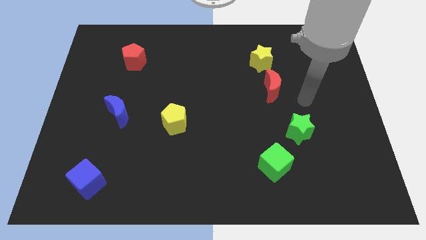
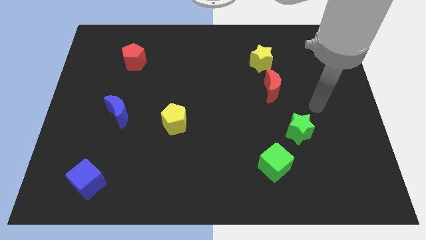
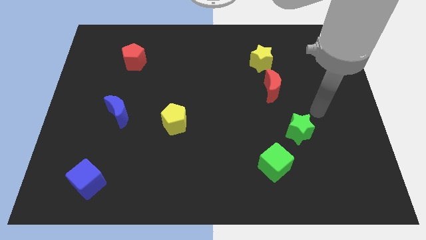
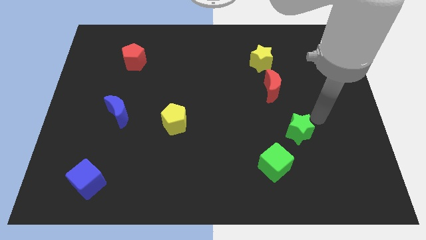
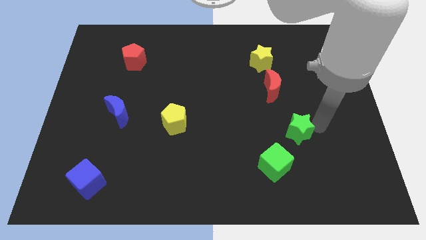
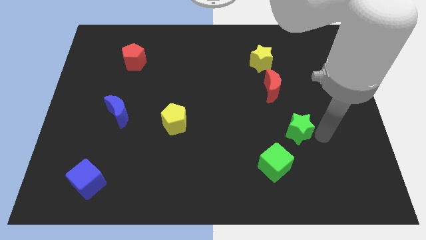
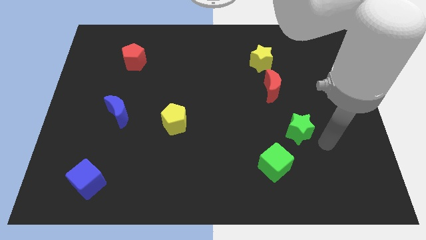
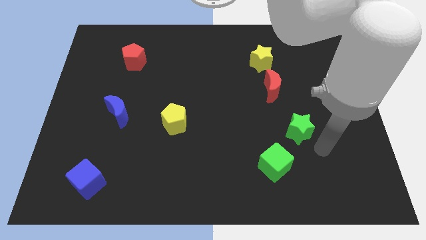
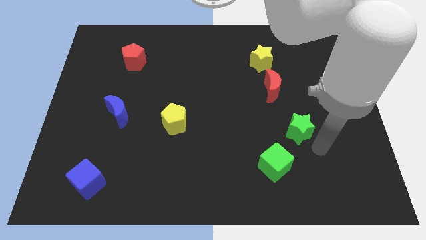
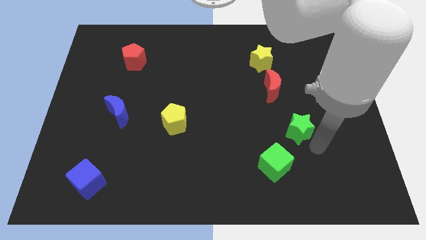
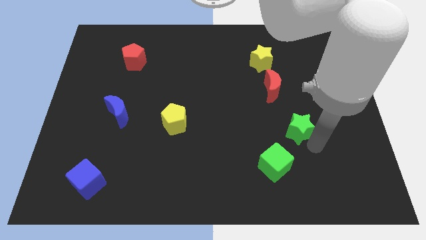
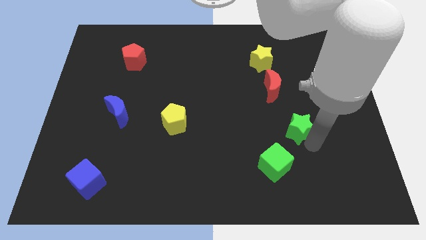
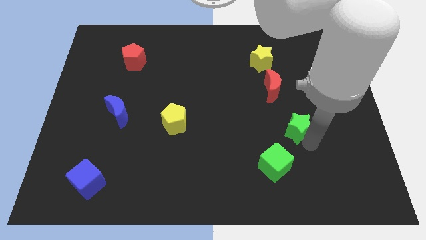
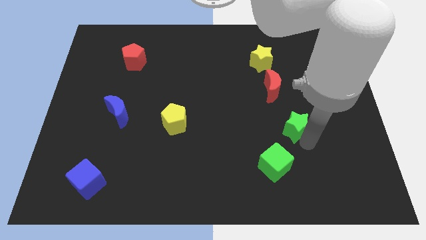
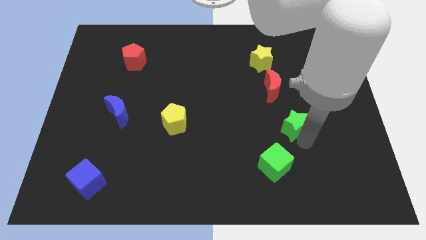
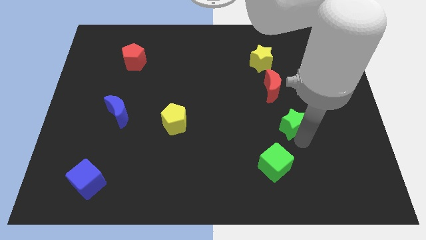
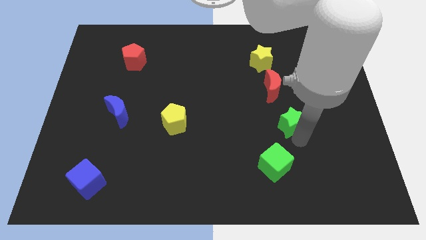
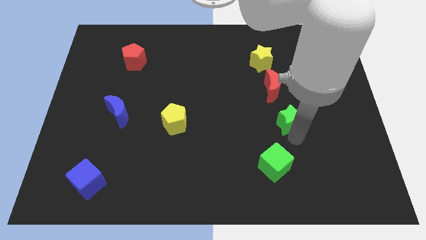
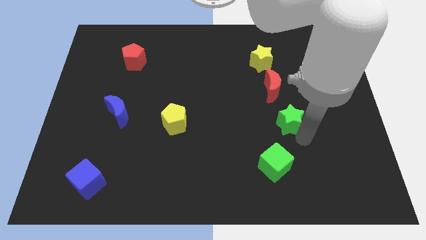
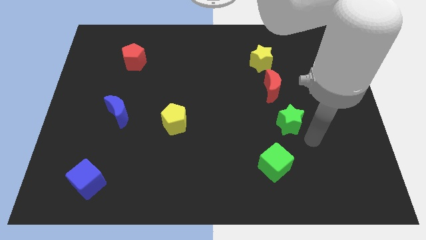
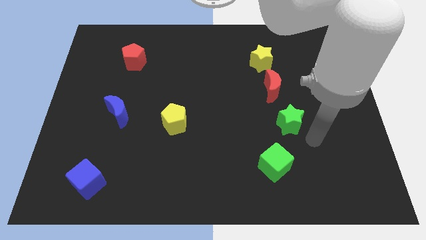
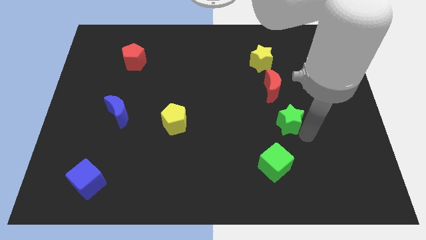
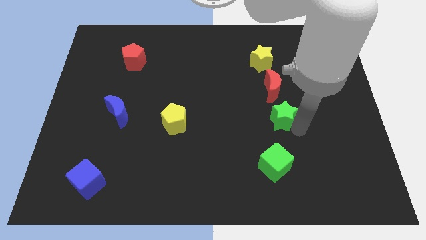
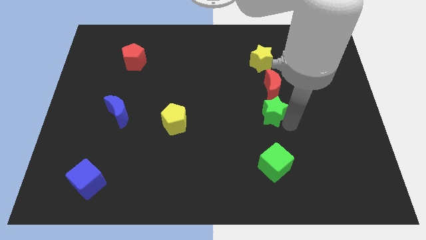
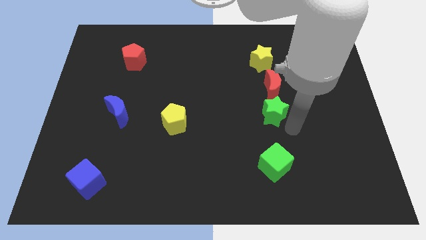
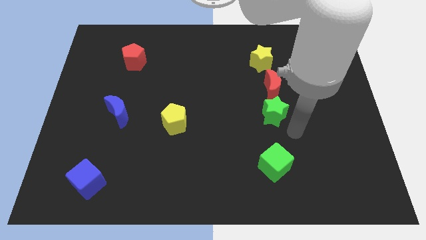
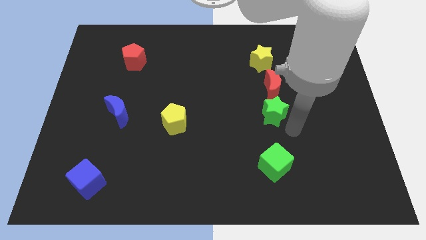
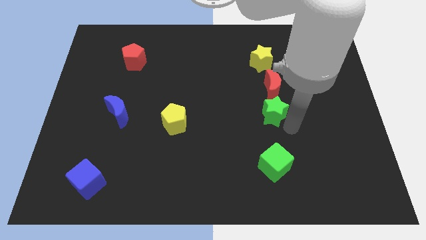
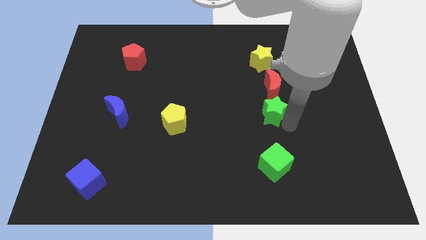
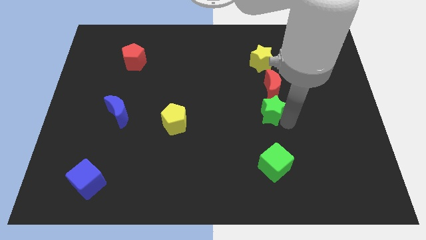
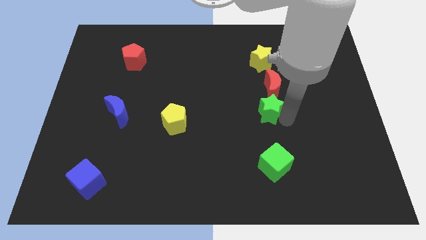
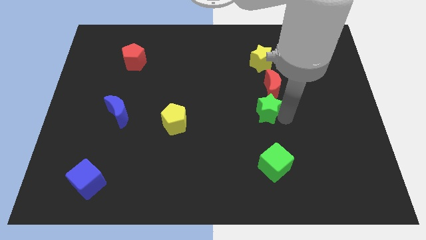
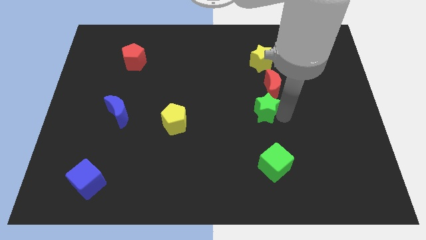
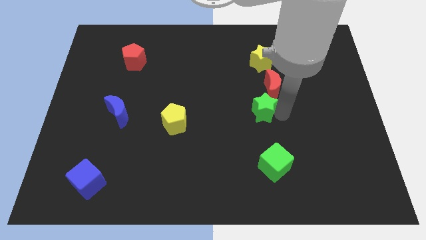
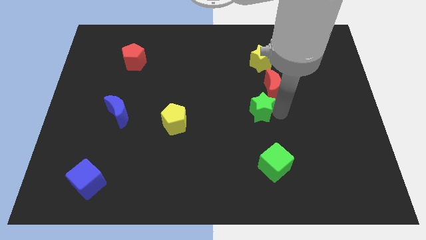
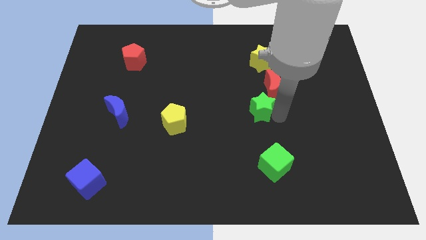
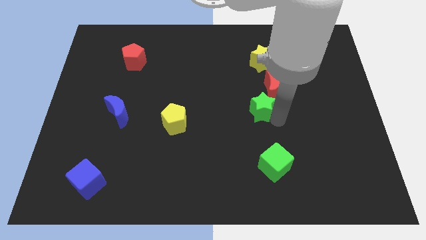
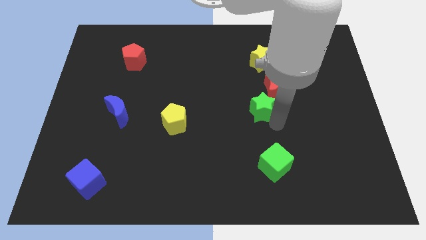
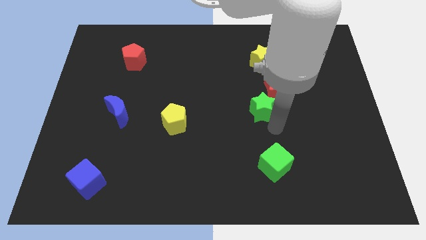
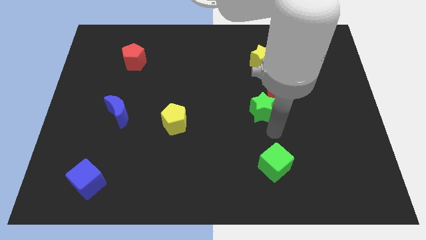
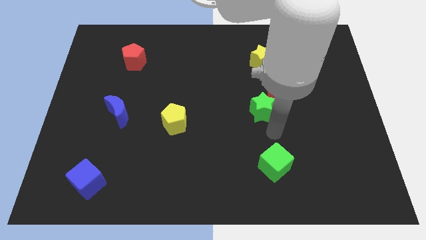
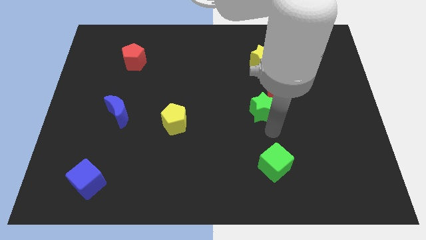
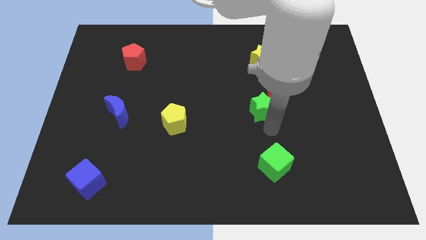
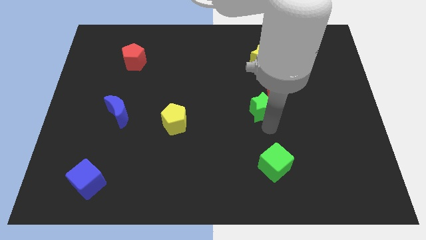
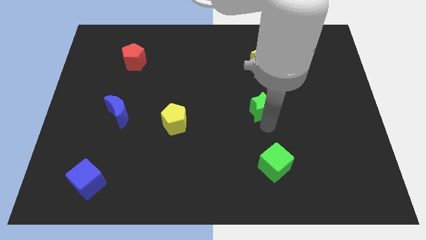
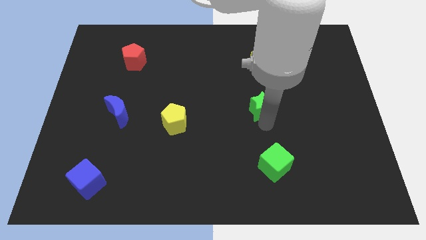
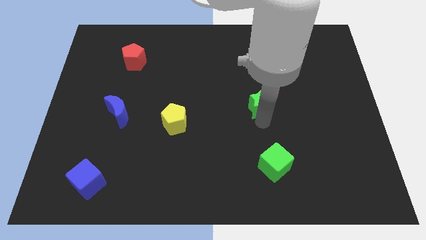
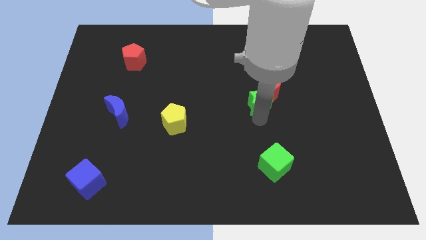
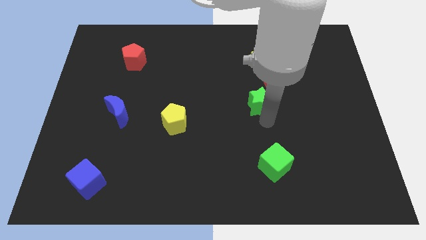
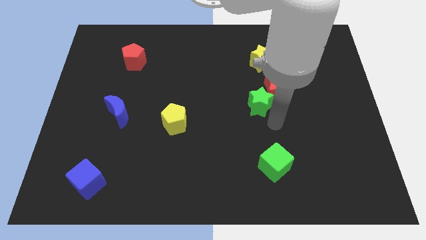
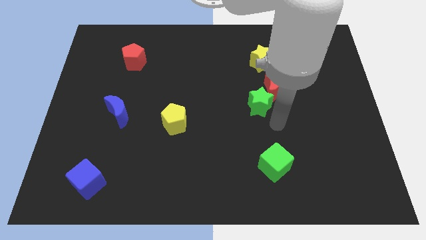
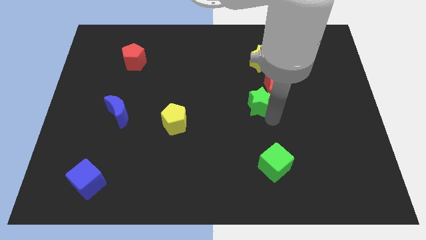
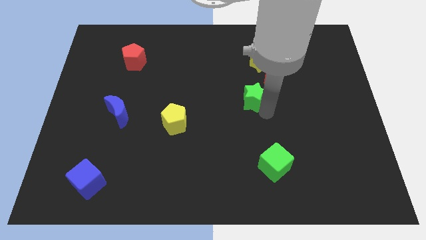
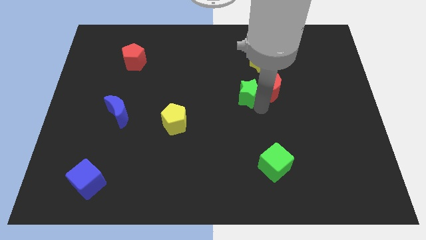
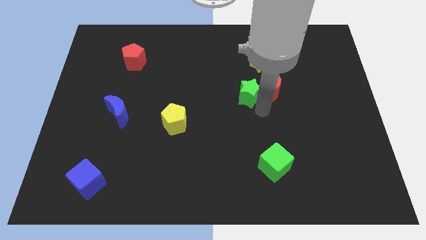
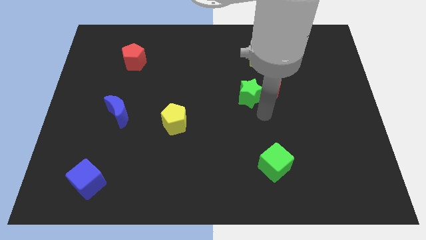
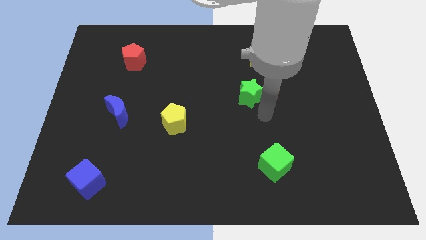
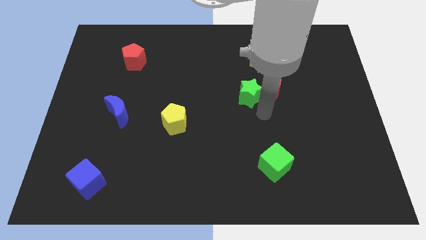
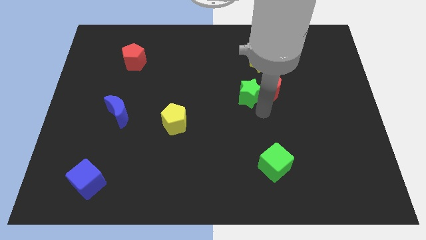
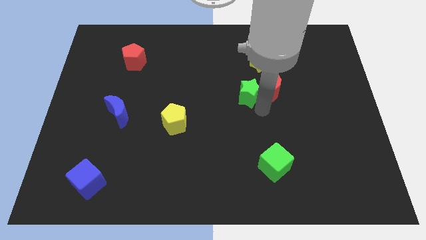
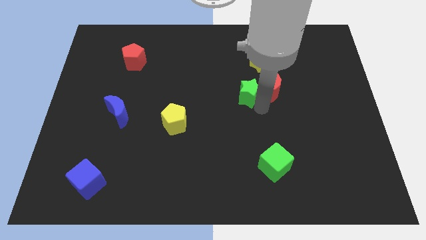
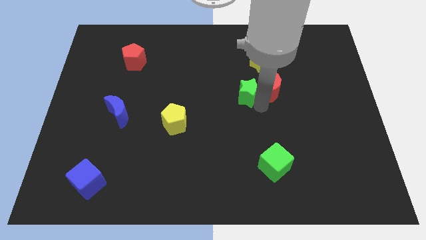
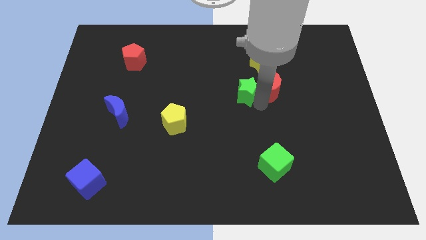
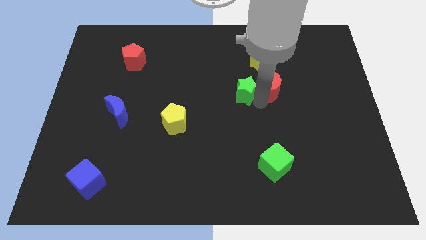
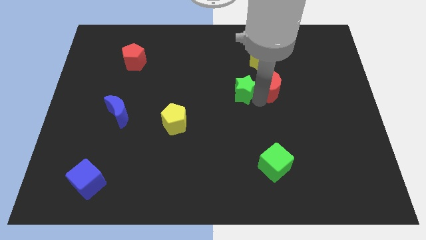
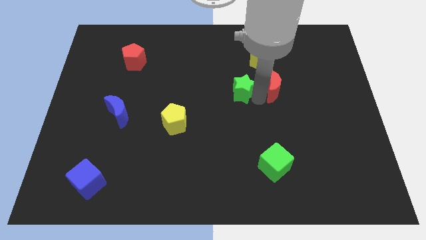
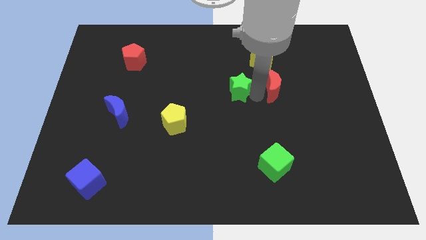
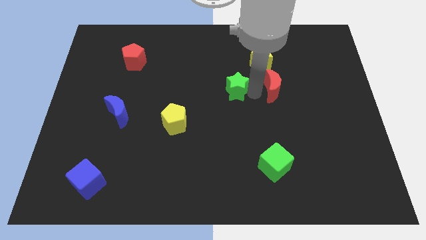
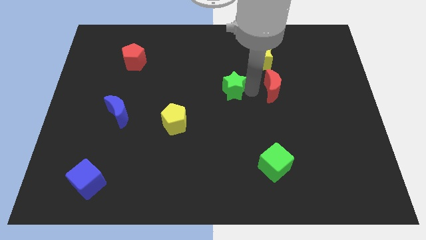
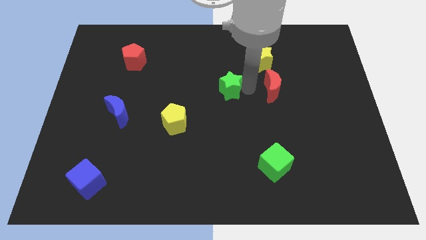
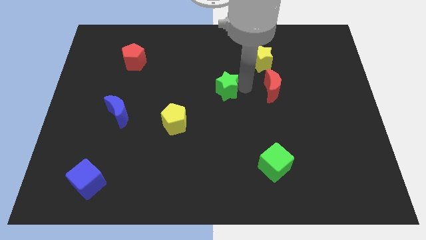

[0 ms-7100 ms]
slide the green star upwards and to the left diagonally

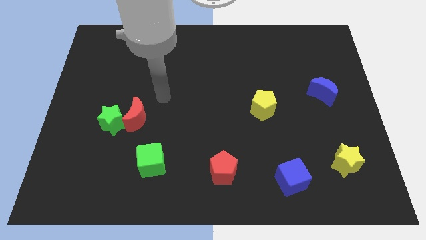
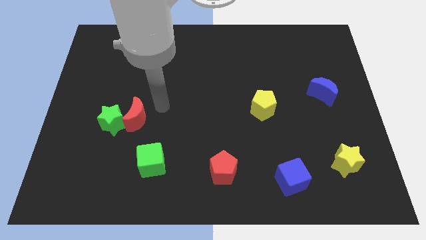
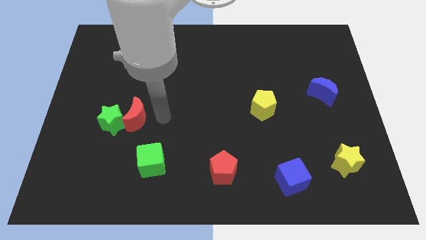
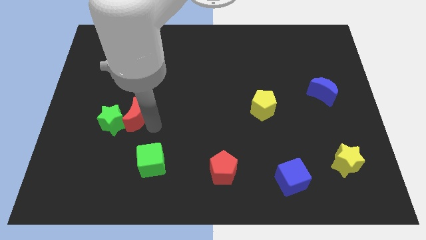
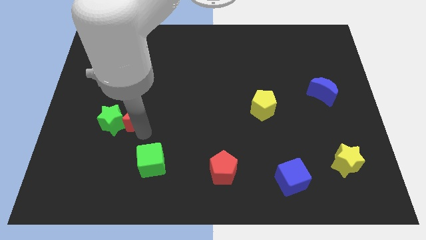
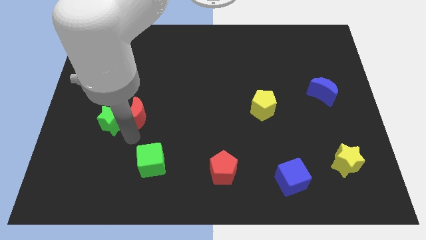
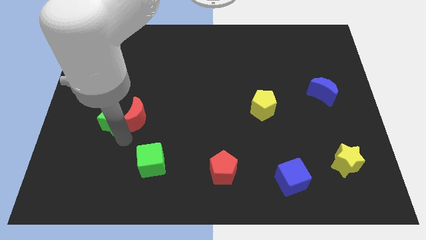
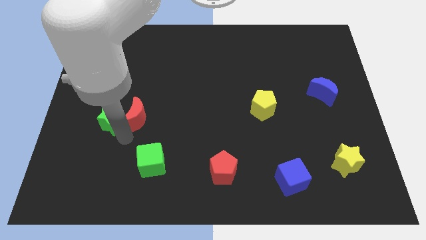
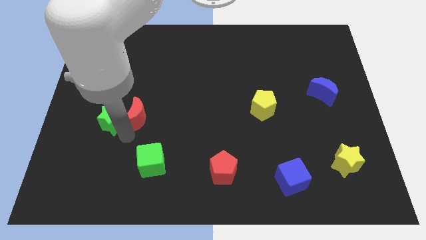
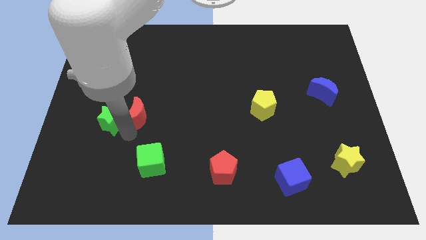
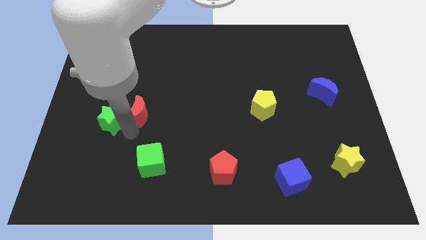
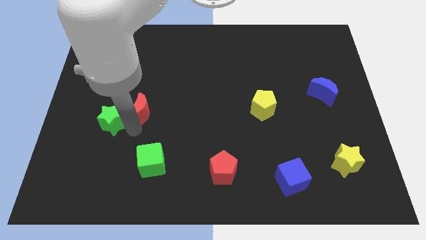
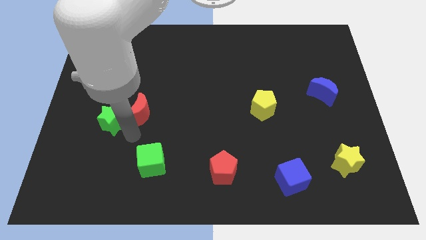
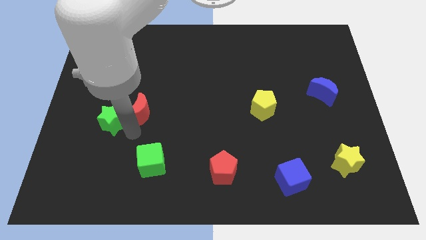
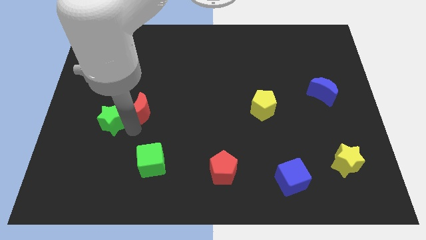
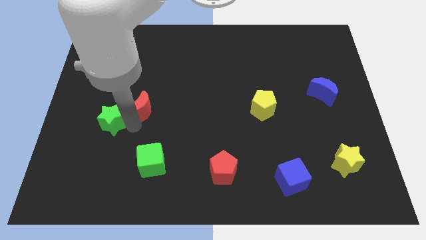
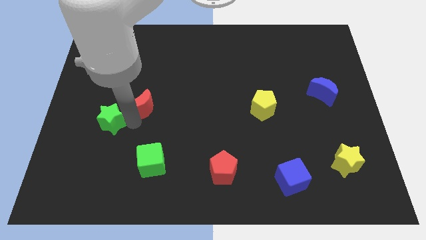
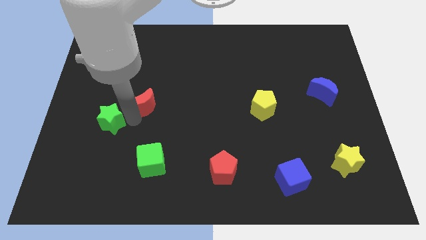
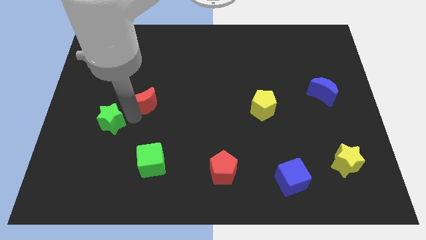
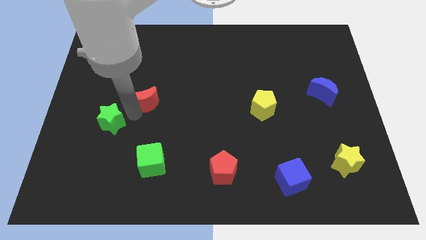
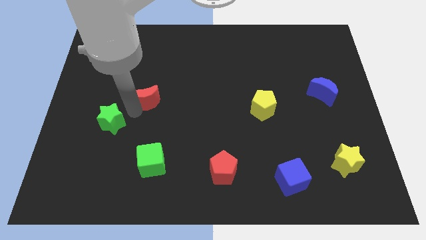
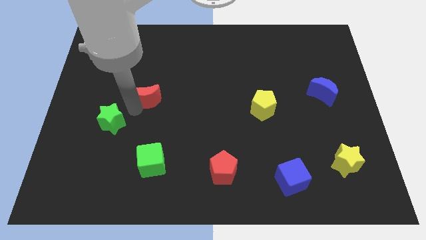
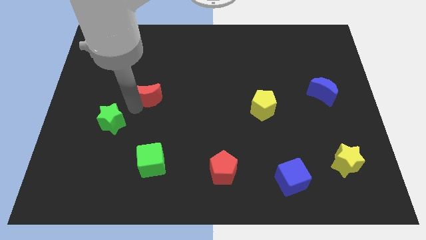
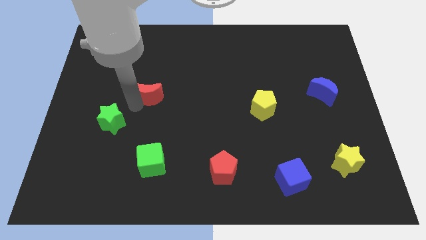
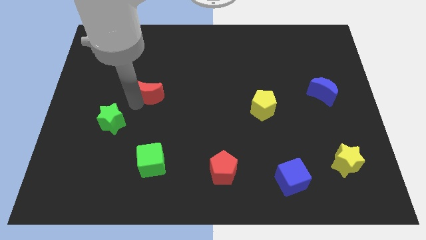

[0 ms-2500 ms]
push the red moon up a little bit
